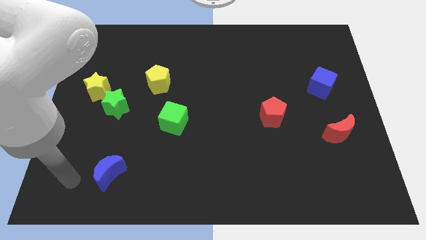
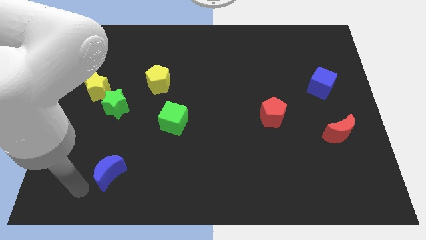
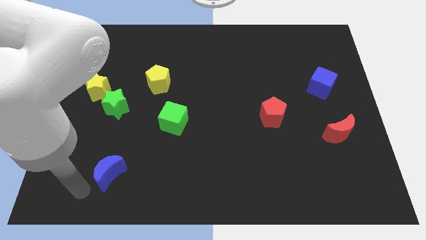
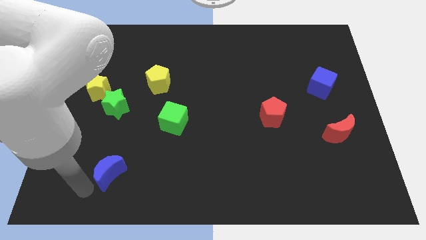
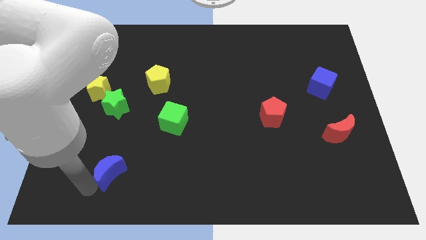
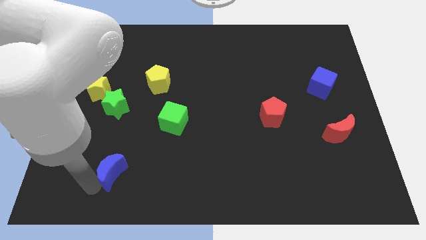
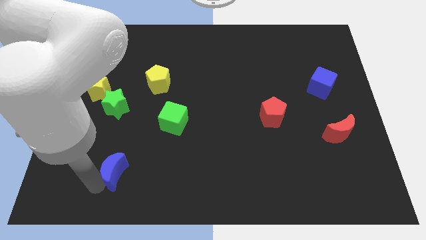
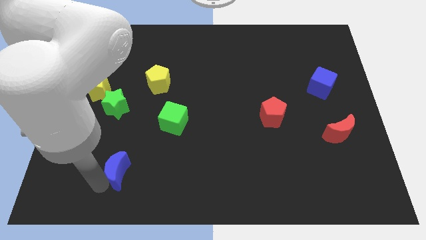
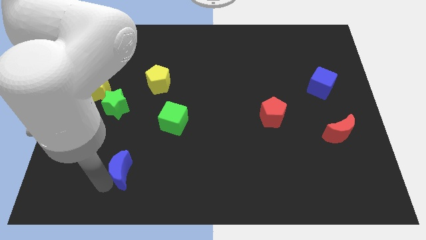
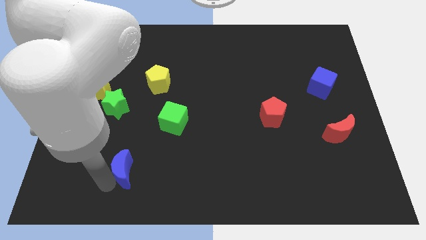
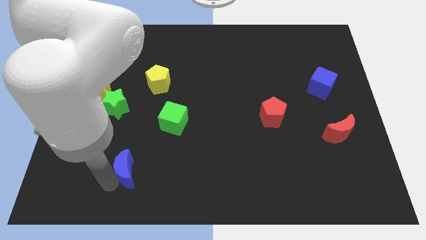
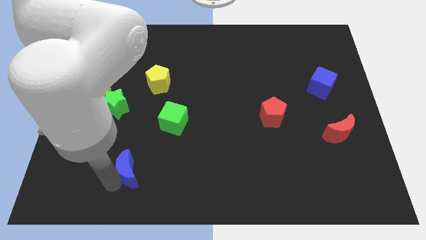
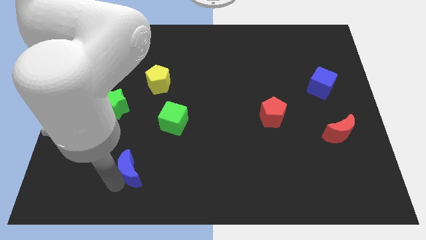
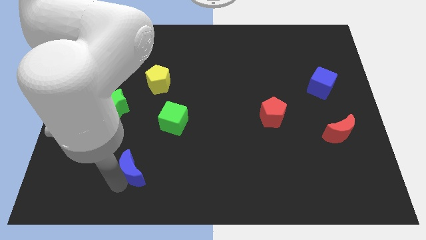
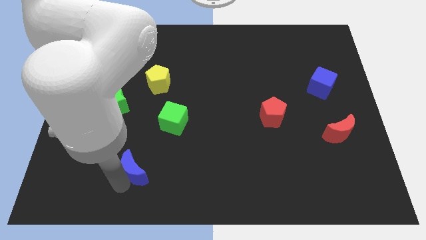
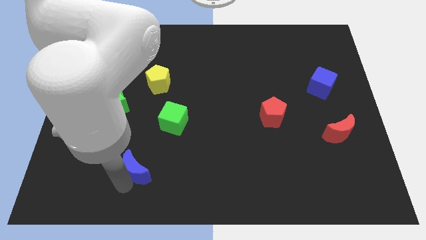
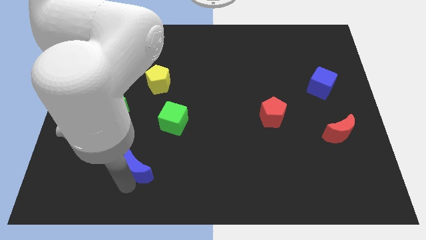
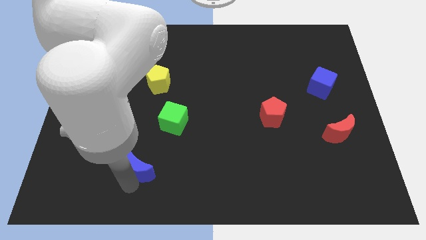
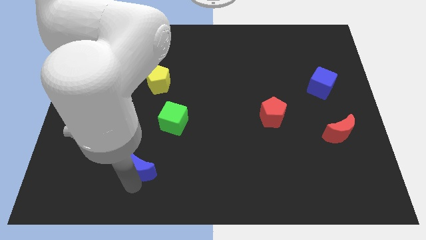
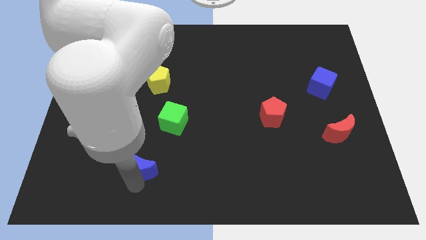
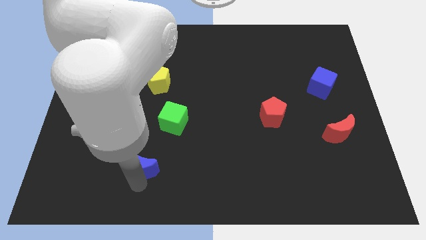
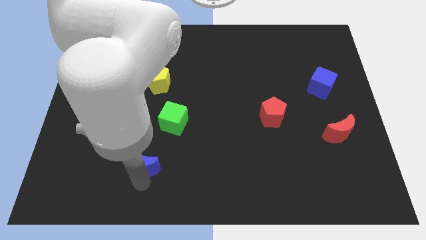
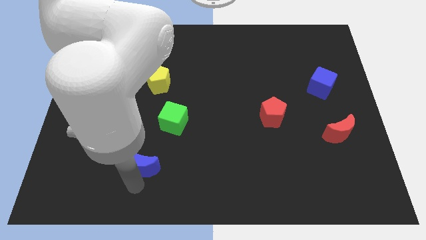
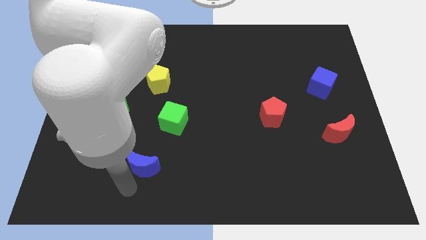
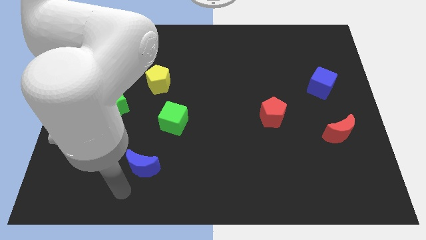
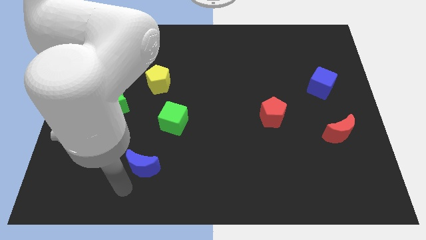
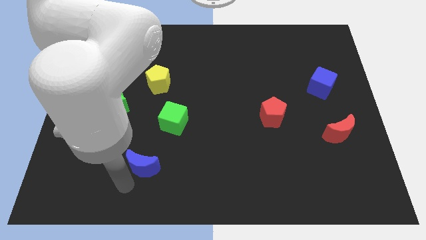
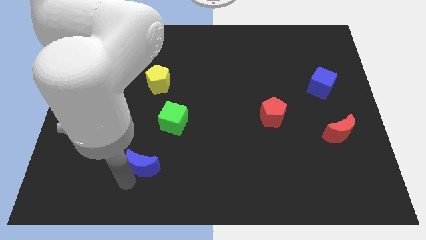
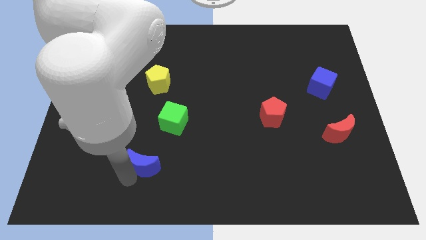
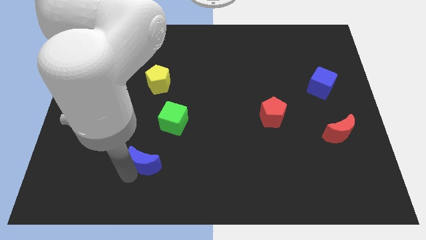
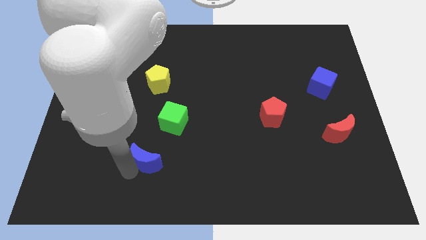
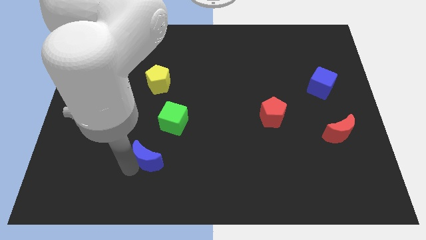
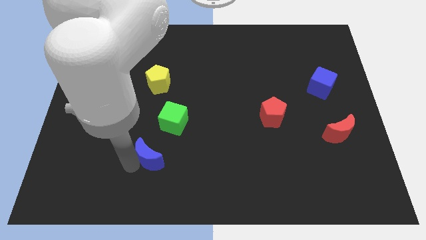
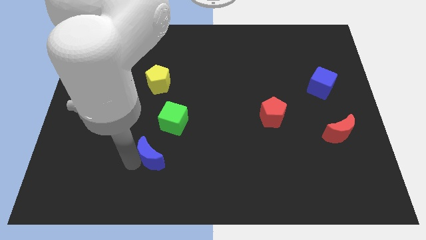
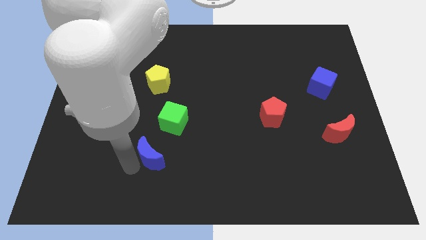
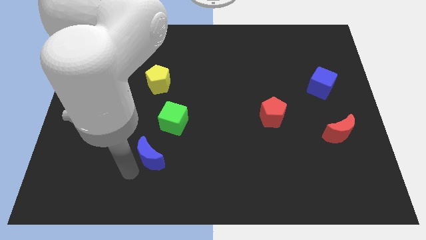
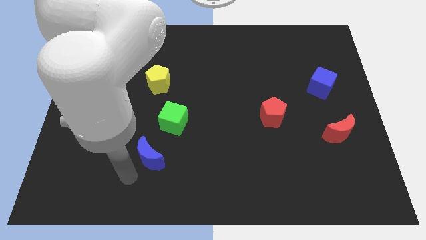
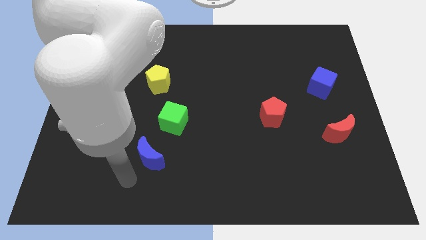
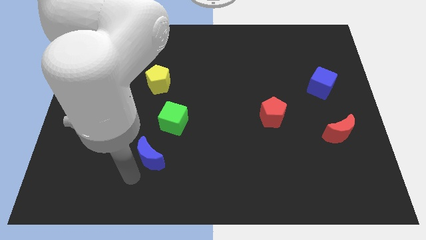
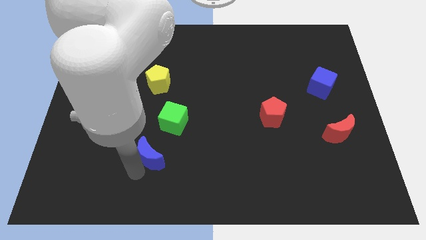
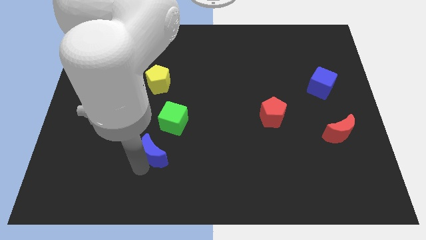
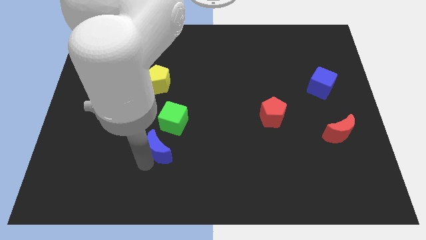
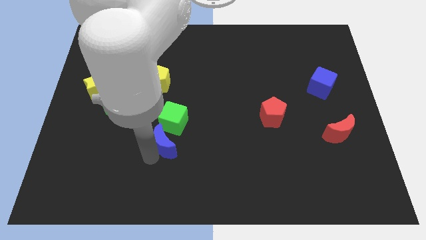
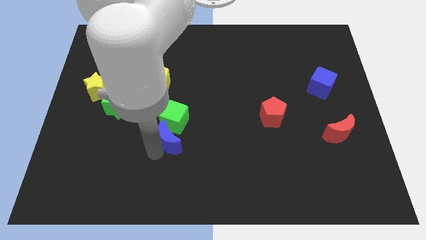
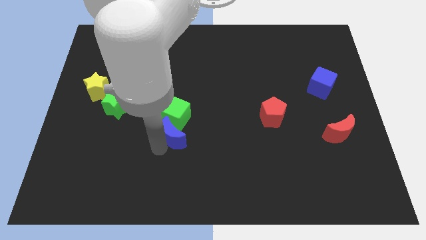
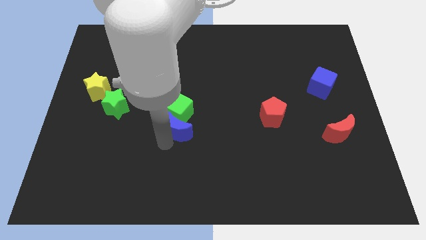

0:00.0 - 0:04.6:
put the blue moon to the center of the board

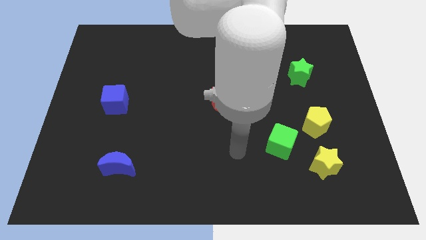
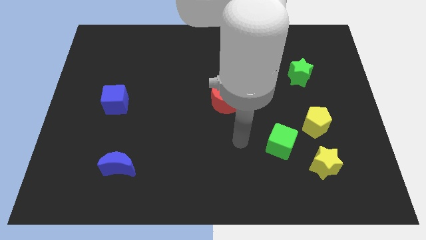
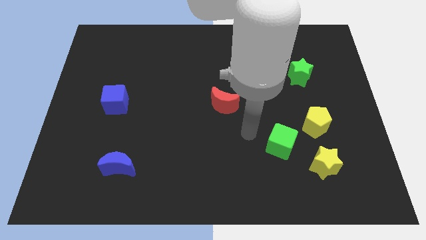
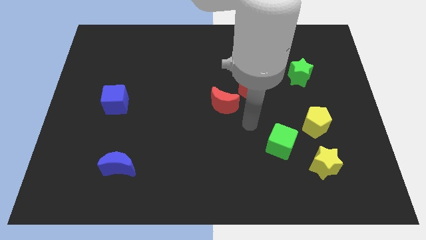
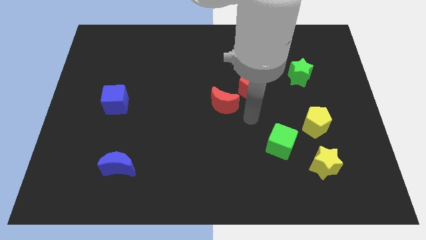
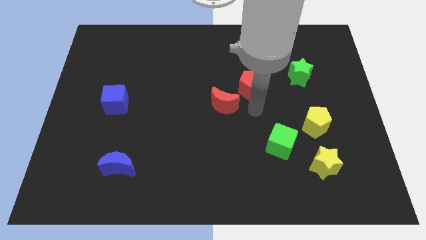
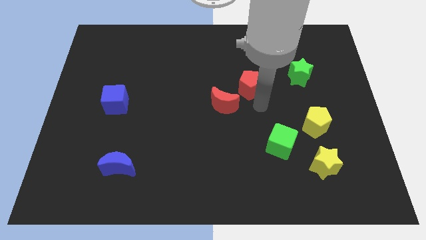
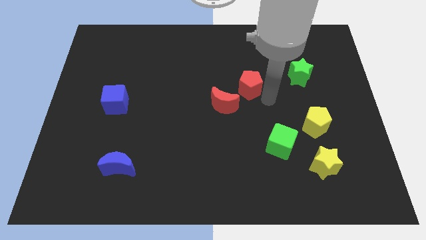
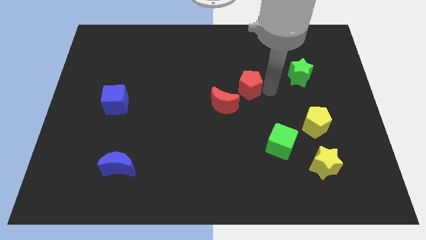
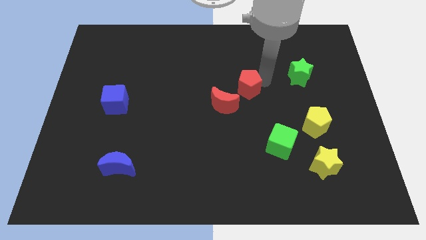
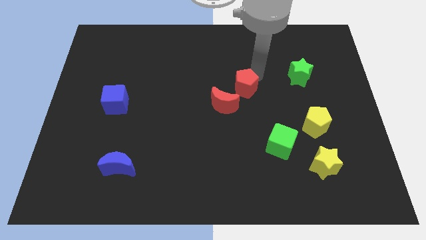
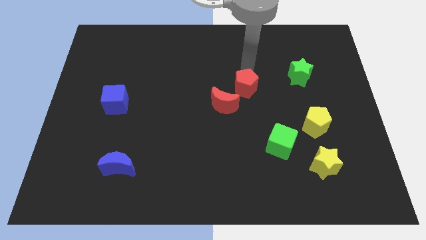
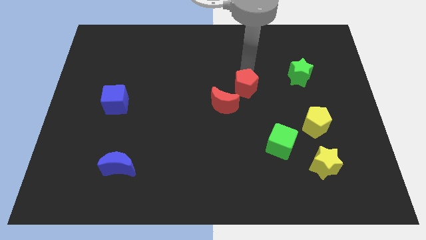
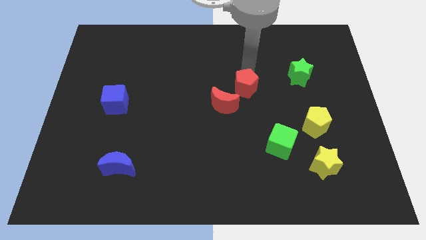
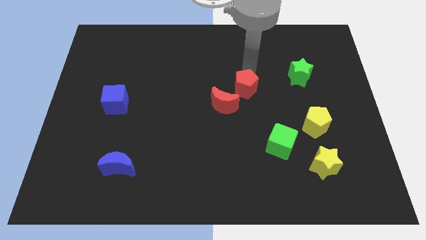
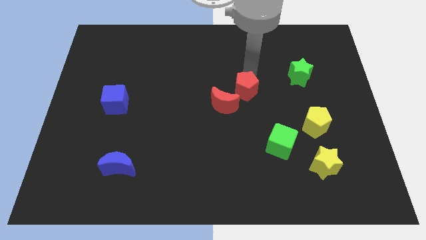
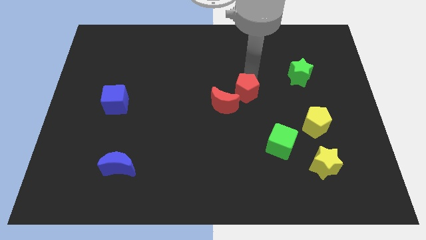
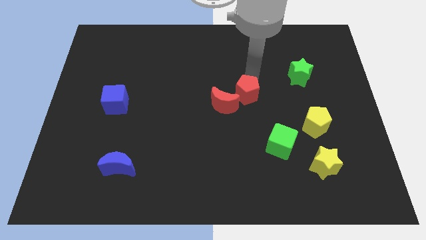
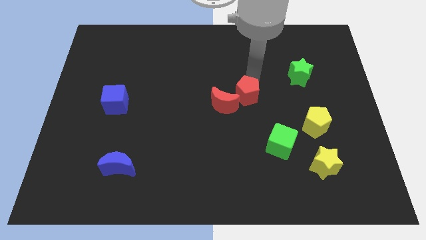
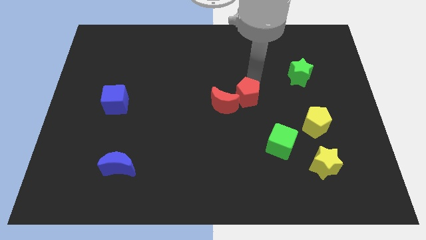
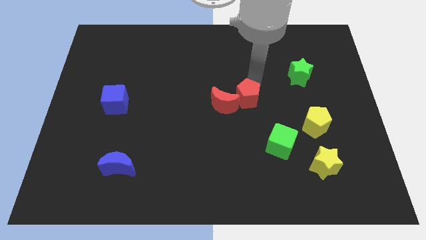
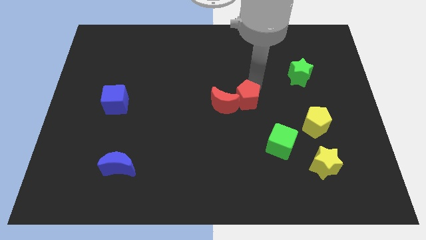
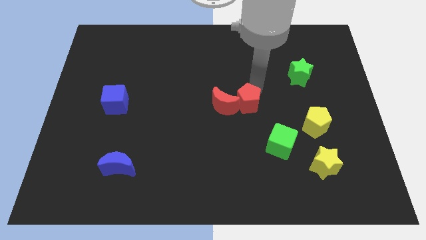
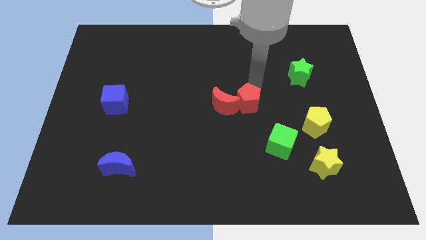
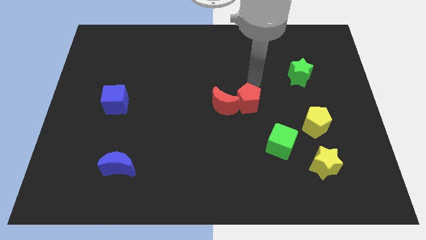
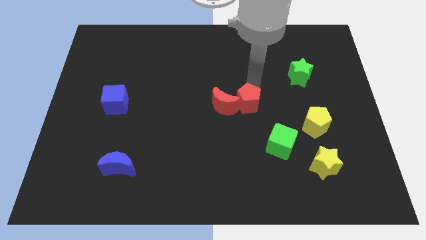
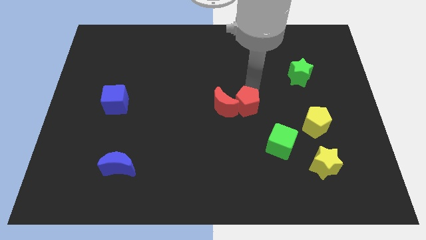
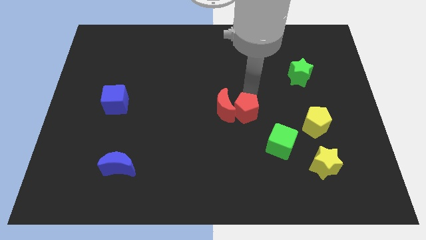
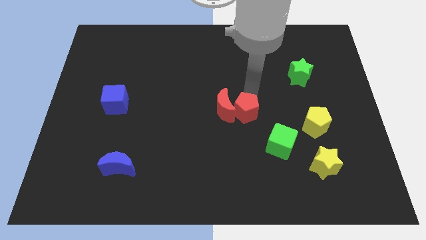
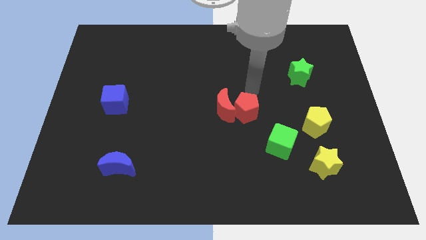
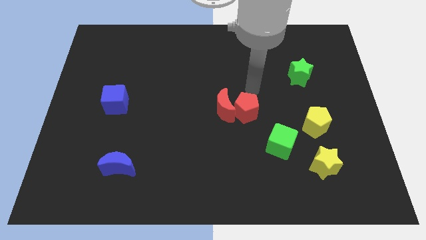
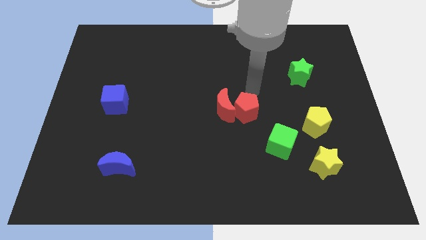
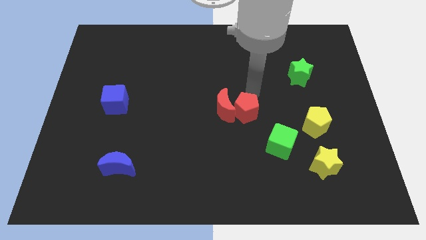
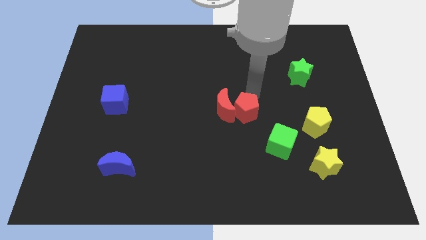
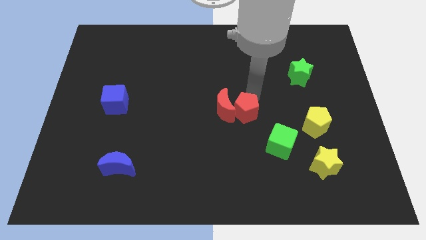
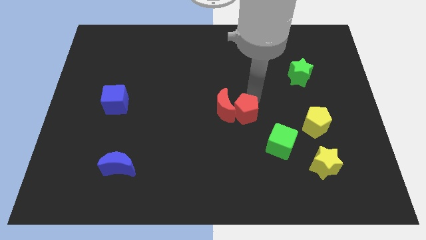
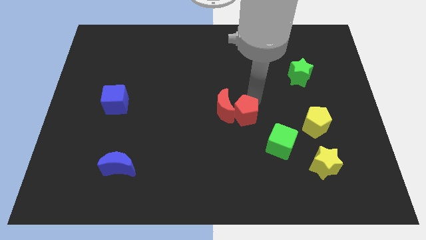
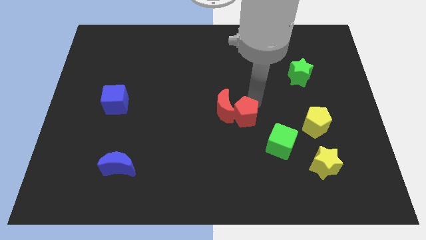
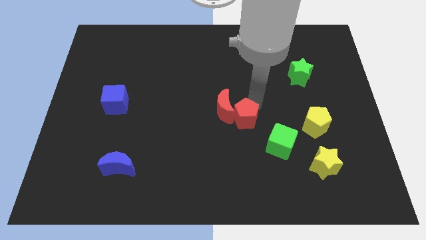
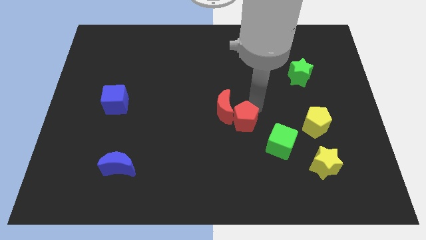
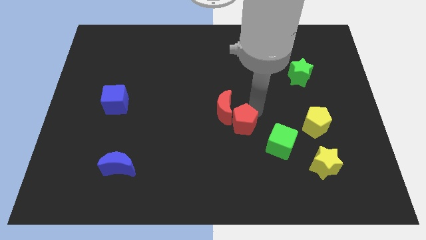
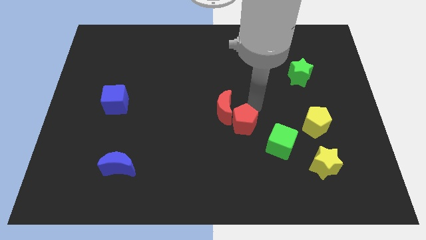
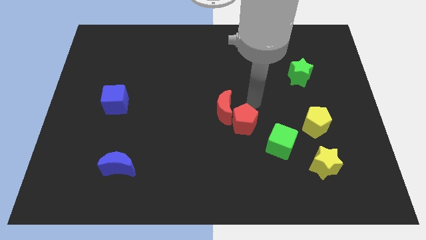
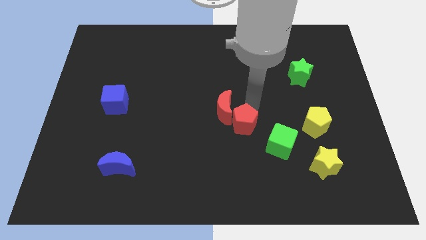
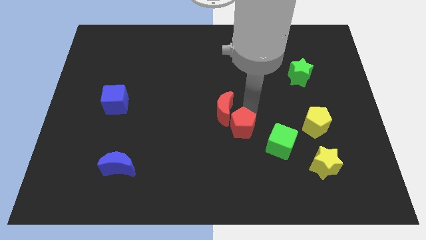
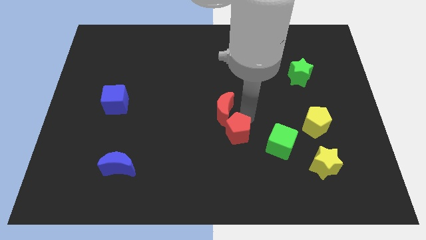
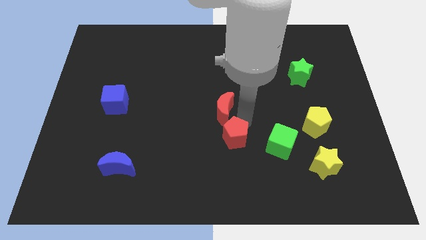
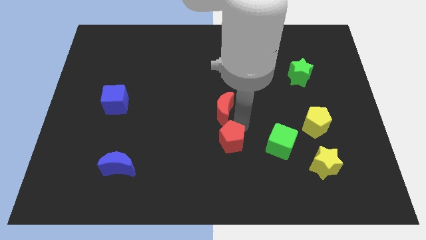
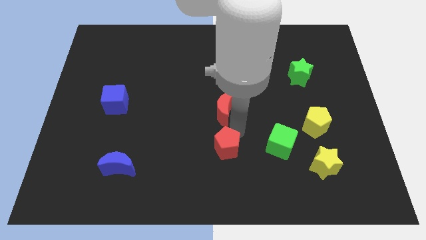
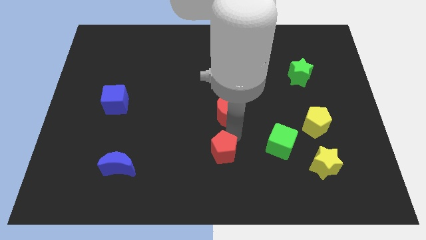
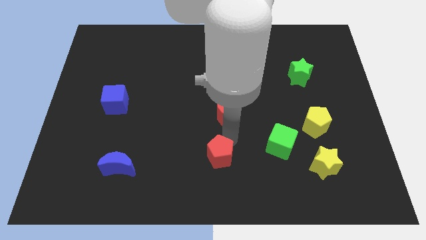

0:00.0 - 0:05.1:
push the red pentagon to the bottom
